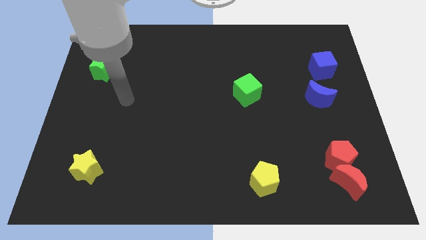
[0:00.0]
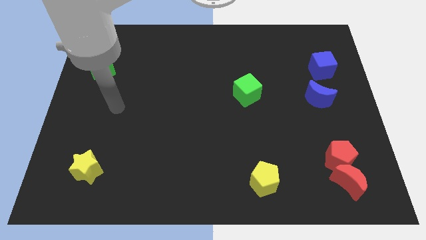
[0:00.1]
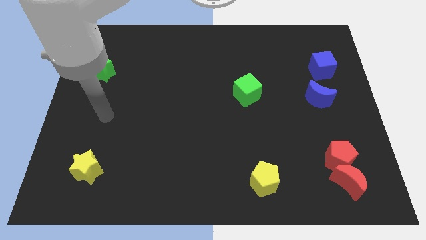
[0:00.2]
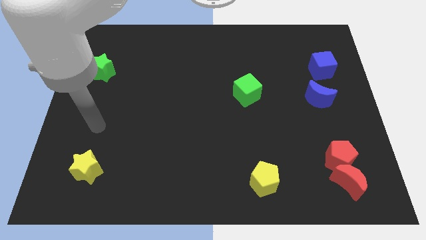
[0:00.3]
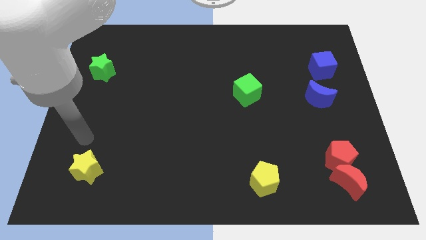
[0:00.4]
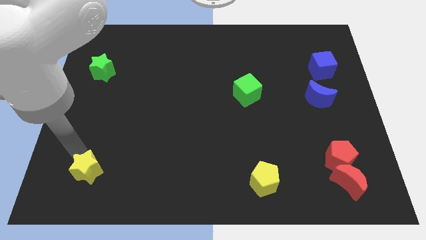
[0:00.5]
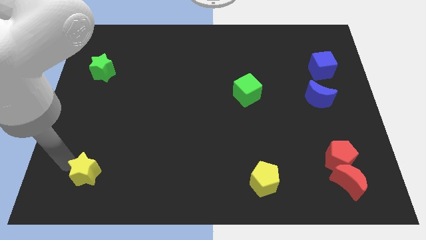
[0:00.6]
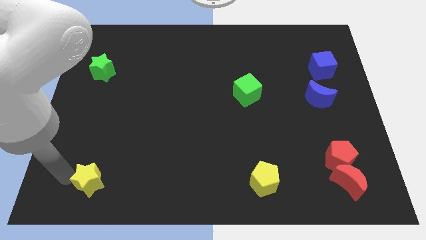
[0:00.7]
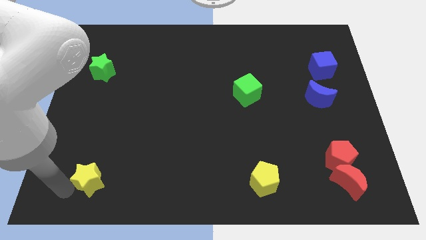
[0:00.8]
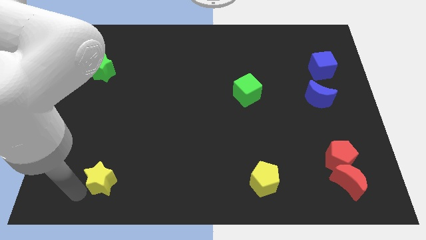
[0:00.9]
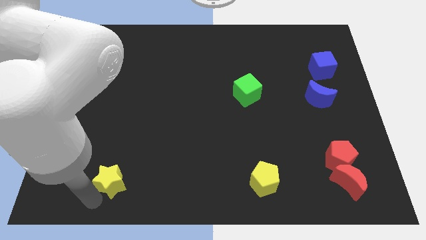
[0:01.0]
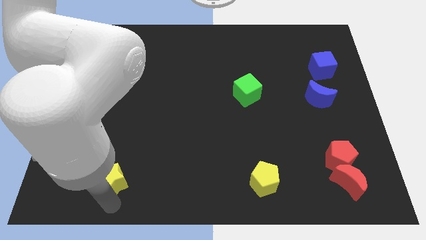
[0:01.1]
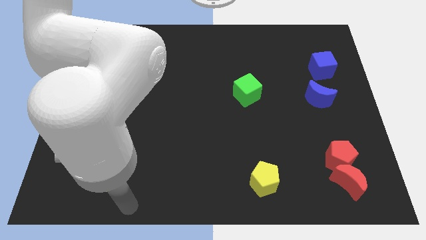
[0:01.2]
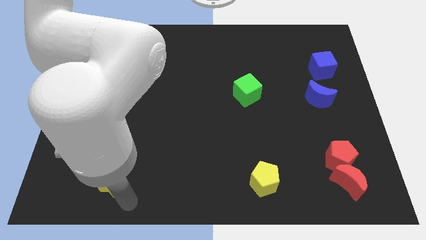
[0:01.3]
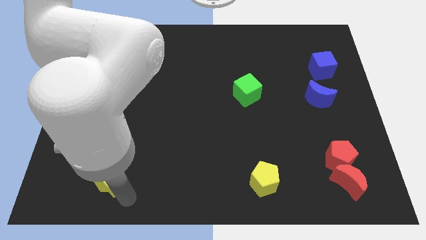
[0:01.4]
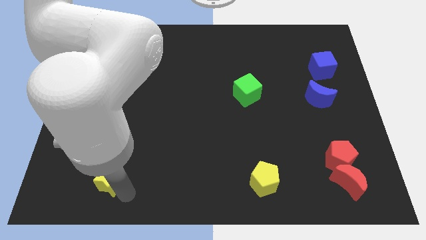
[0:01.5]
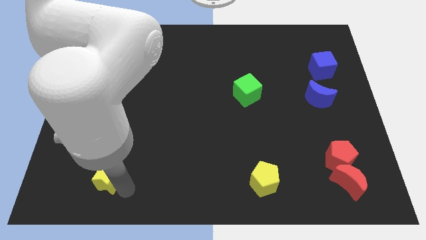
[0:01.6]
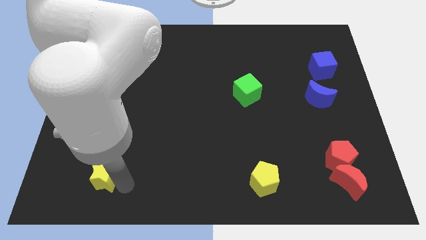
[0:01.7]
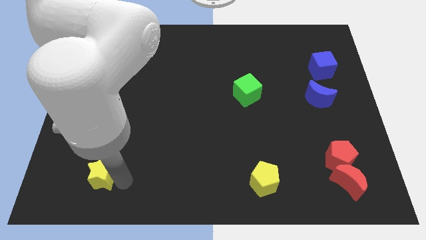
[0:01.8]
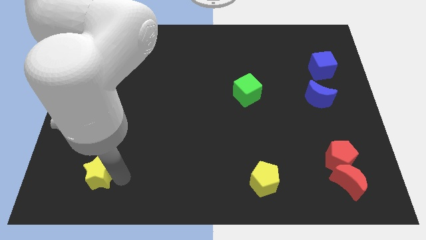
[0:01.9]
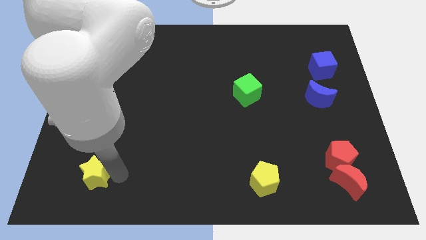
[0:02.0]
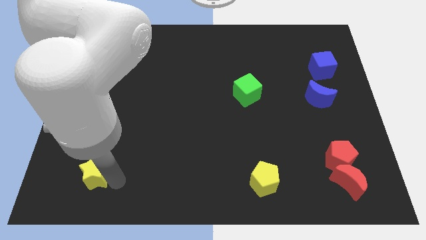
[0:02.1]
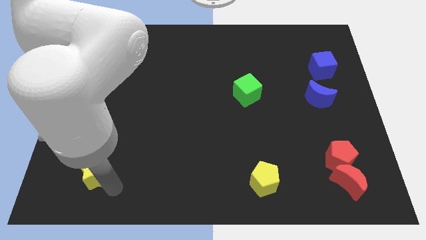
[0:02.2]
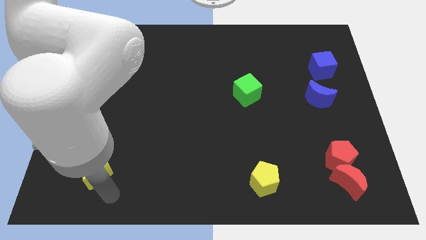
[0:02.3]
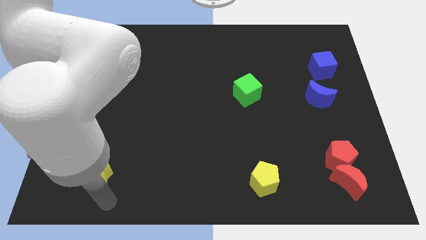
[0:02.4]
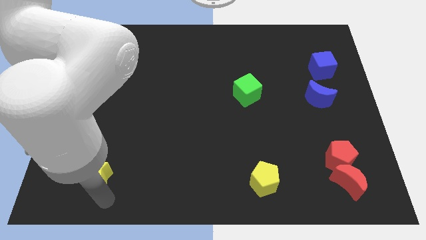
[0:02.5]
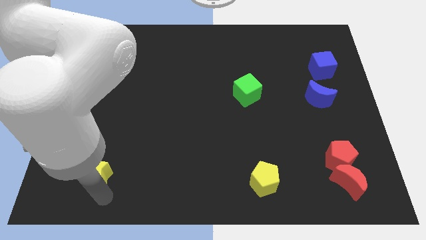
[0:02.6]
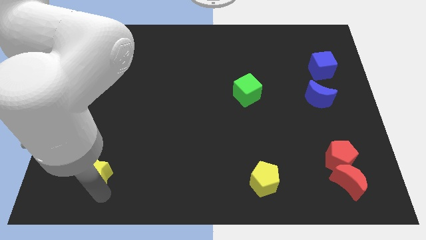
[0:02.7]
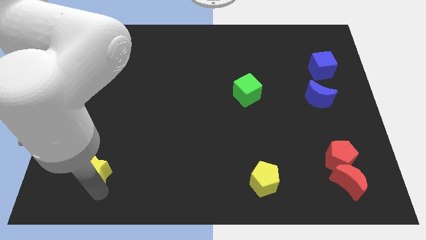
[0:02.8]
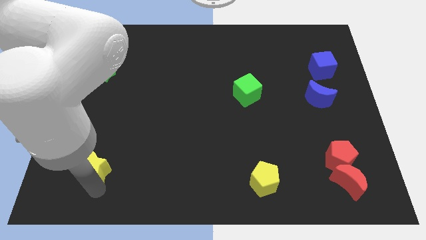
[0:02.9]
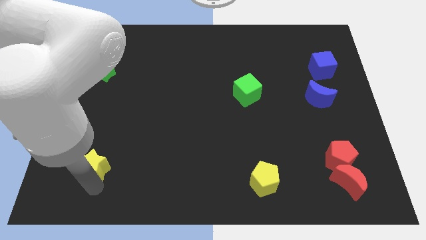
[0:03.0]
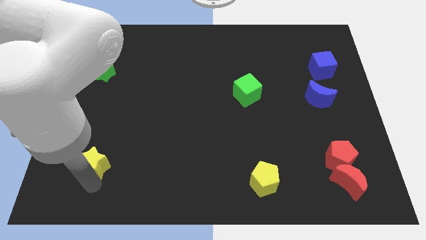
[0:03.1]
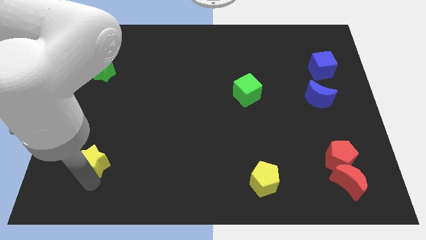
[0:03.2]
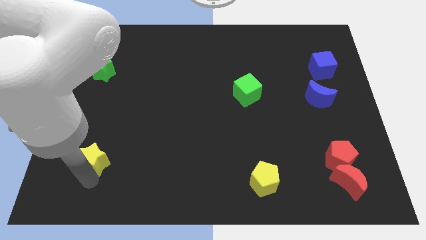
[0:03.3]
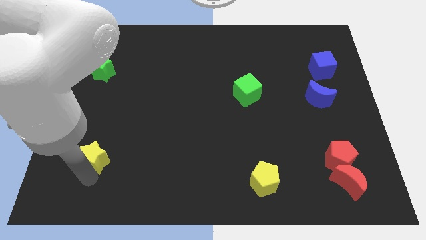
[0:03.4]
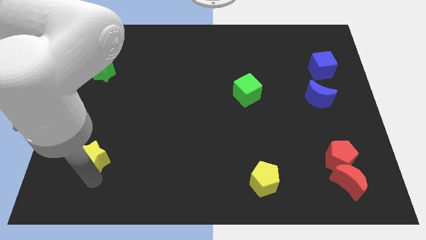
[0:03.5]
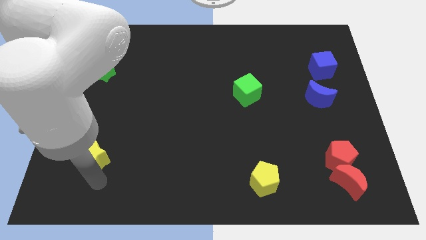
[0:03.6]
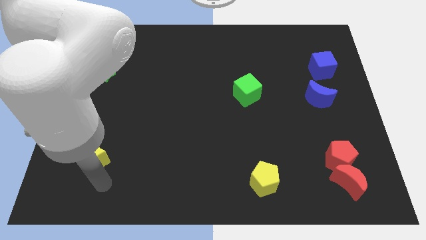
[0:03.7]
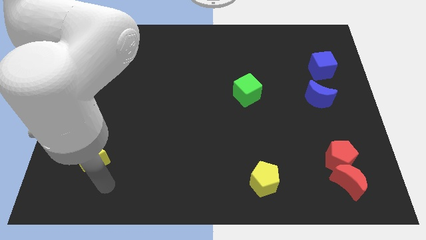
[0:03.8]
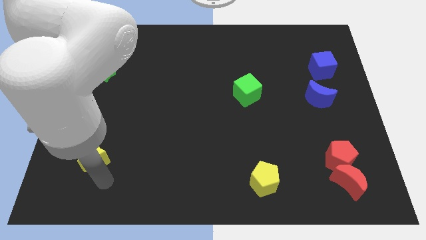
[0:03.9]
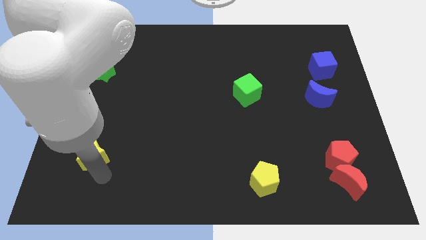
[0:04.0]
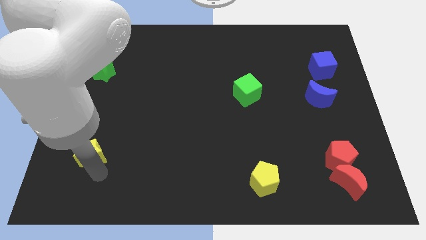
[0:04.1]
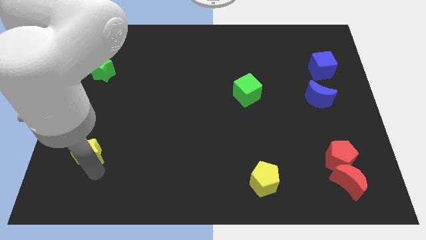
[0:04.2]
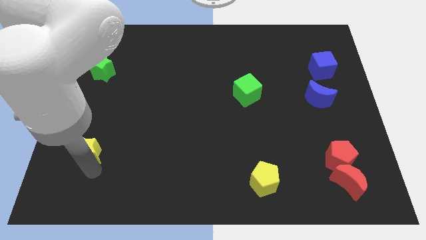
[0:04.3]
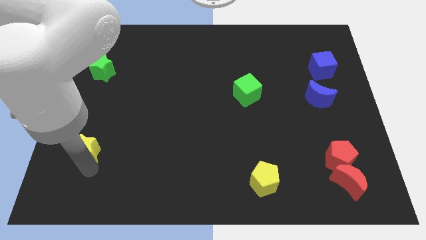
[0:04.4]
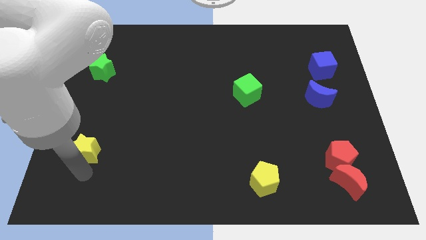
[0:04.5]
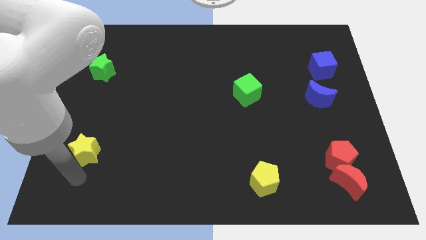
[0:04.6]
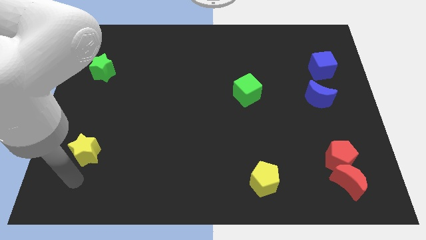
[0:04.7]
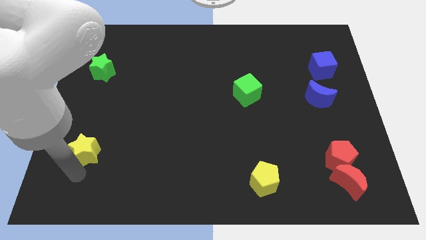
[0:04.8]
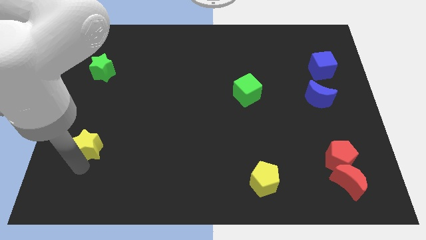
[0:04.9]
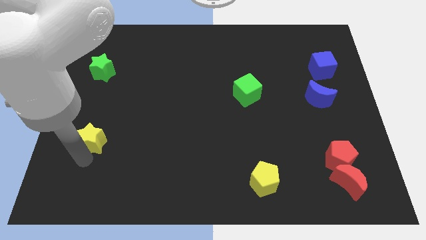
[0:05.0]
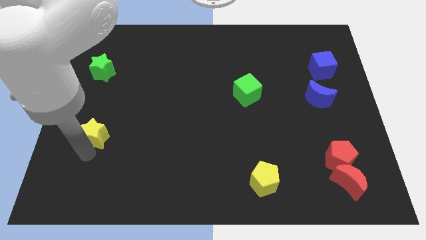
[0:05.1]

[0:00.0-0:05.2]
slide the yellow star up slightly

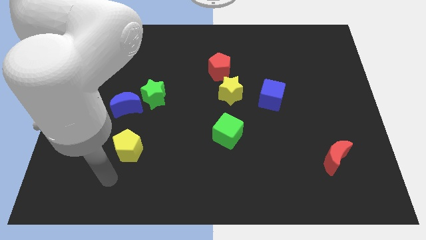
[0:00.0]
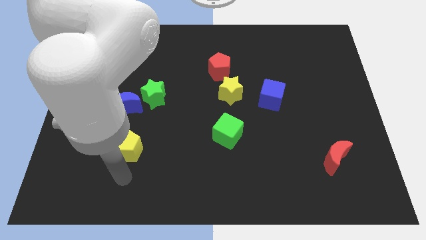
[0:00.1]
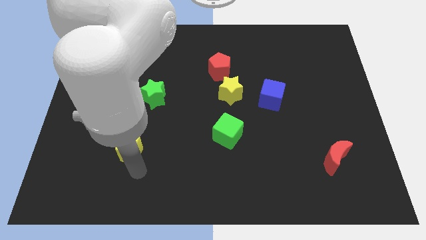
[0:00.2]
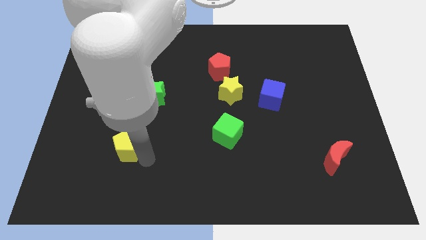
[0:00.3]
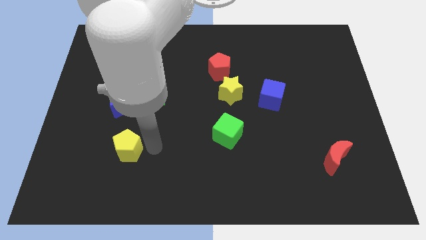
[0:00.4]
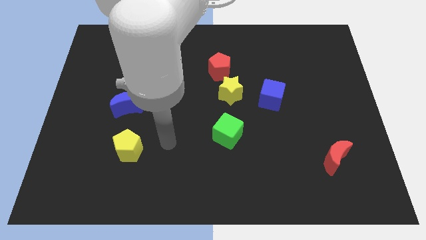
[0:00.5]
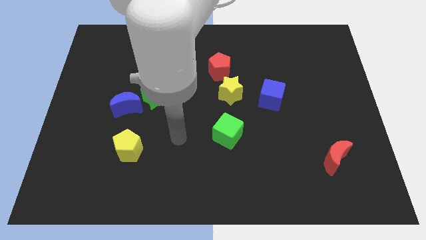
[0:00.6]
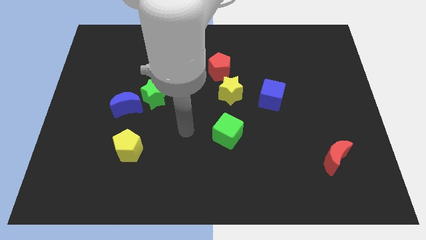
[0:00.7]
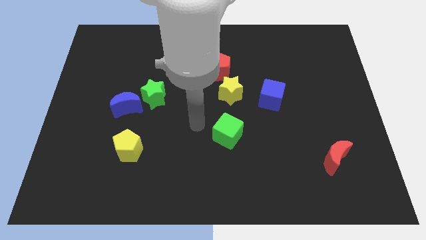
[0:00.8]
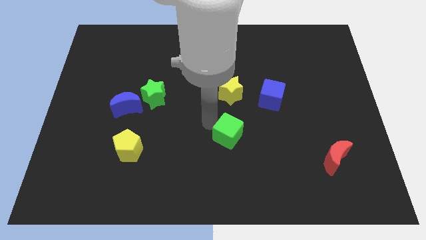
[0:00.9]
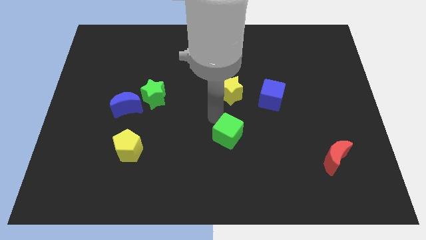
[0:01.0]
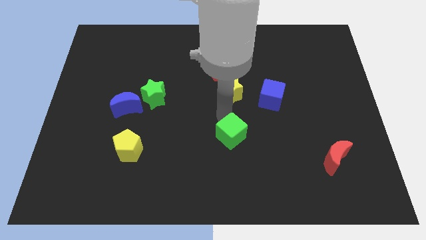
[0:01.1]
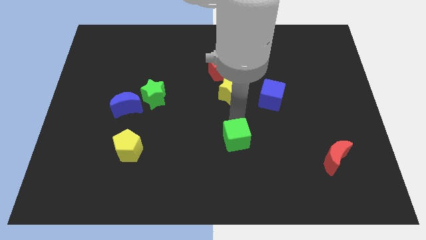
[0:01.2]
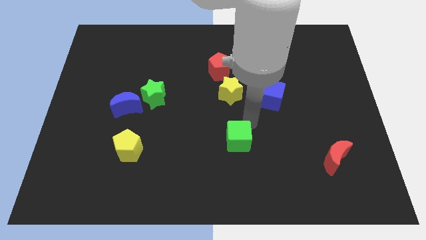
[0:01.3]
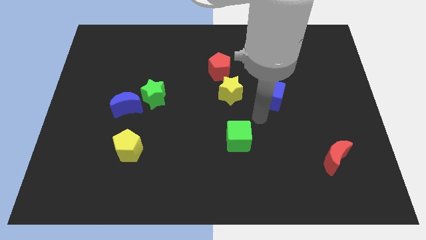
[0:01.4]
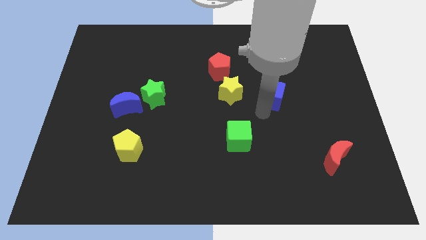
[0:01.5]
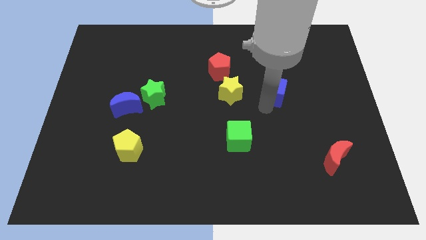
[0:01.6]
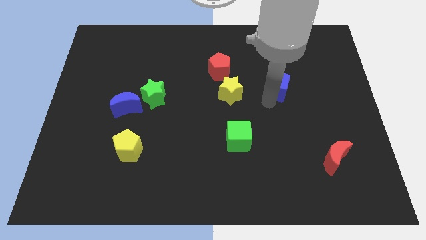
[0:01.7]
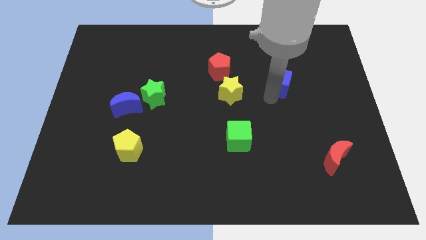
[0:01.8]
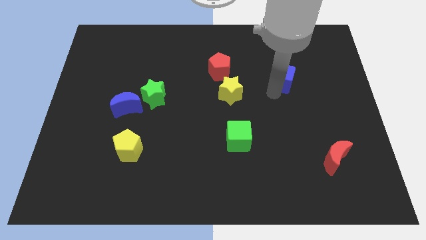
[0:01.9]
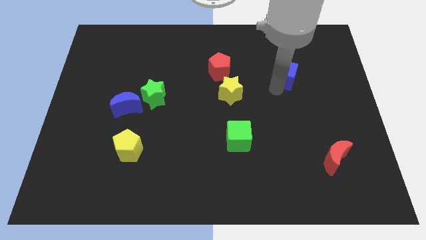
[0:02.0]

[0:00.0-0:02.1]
push the blue cube a bit diagonally up and to the right

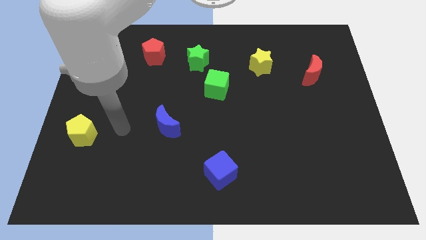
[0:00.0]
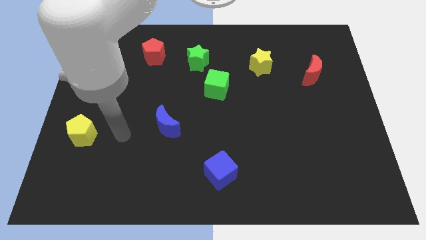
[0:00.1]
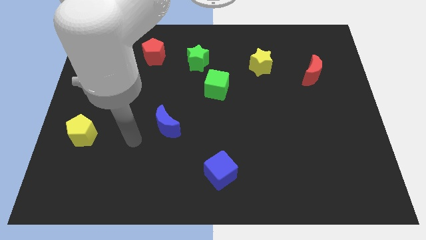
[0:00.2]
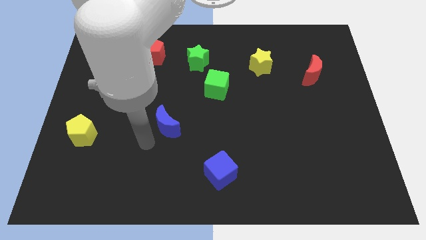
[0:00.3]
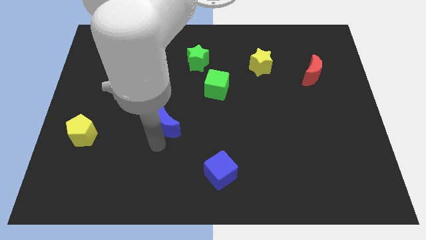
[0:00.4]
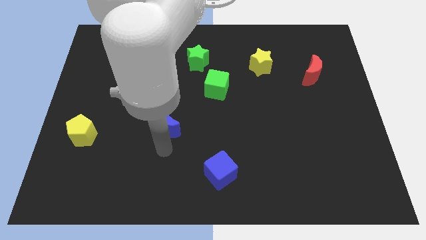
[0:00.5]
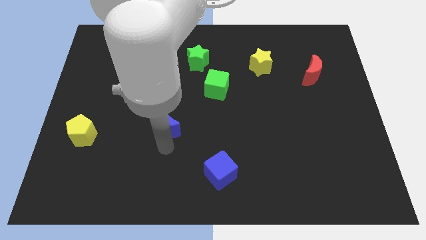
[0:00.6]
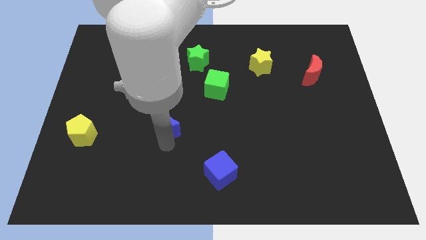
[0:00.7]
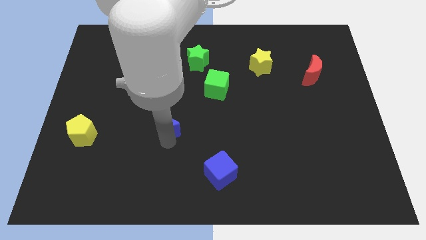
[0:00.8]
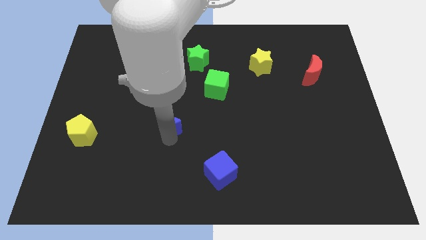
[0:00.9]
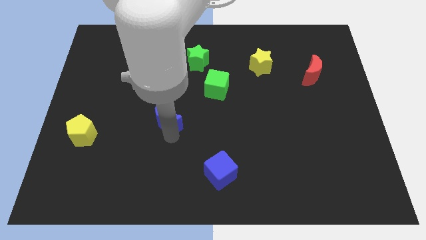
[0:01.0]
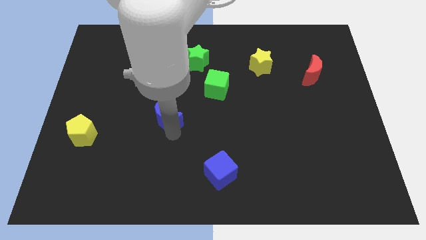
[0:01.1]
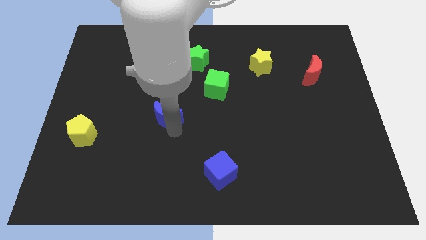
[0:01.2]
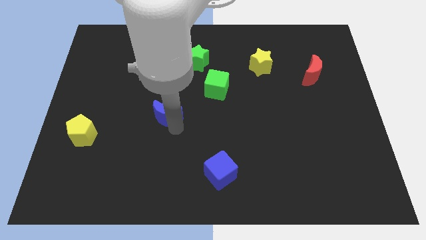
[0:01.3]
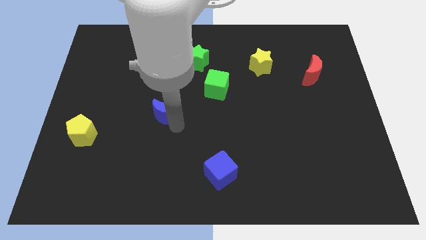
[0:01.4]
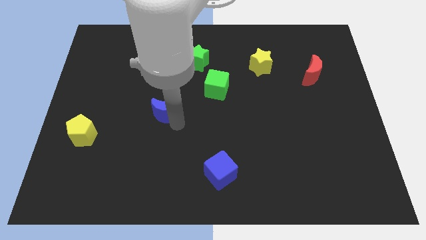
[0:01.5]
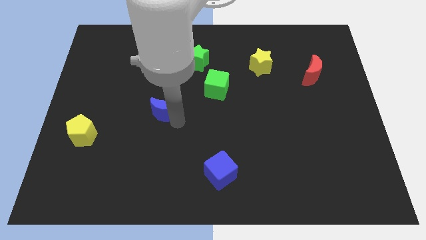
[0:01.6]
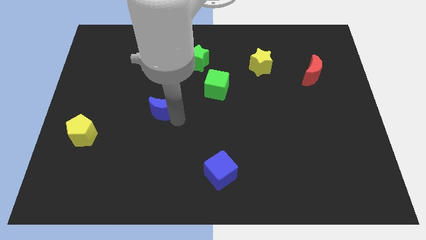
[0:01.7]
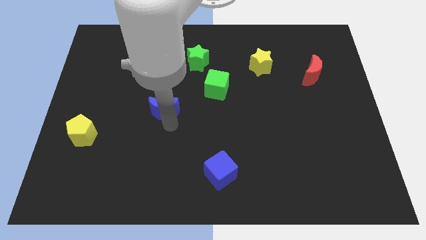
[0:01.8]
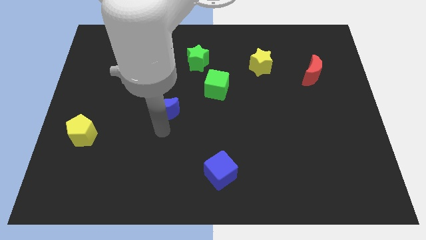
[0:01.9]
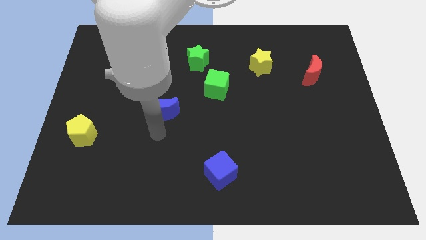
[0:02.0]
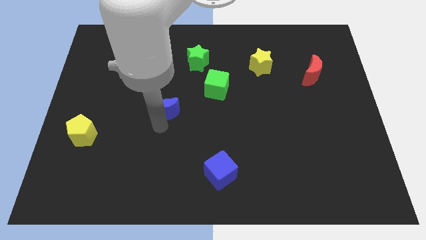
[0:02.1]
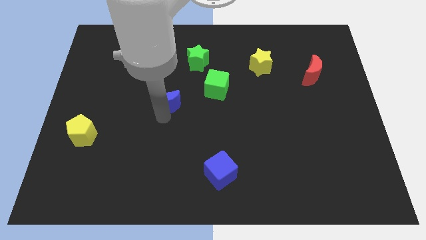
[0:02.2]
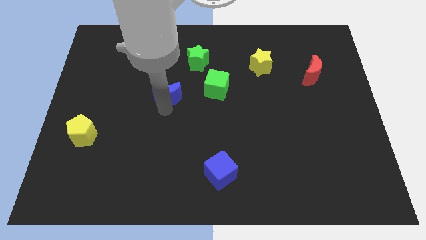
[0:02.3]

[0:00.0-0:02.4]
push the blue moon a little bit up
